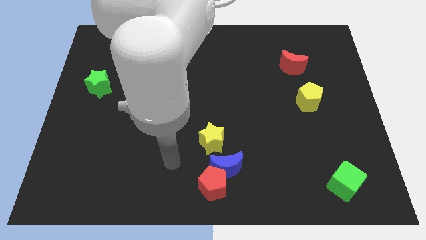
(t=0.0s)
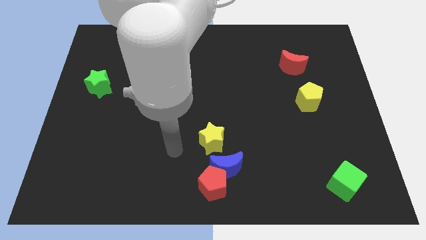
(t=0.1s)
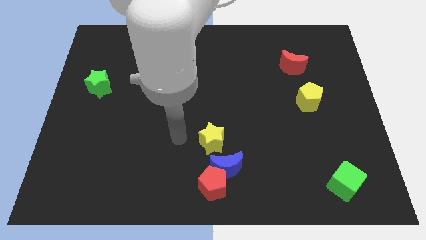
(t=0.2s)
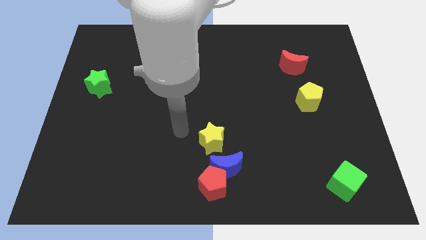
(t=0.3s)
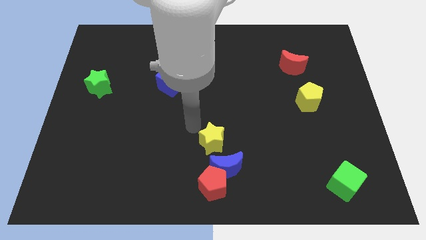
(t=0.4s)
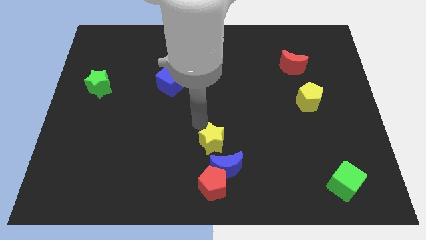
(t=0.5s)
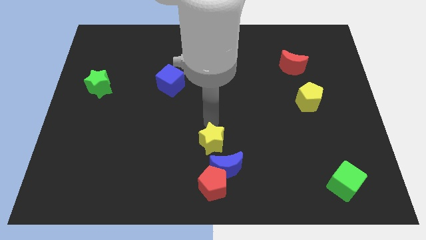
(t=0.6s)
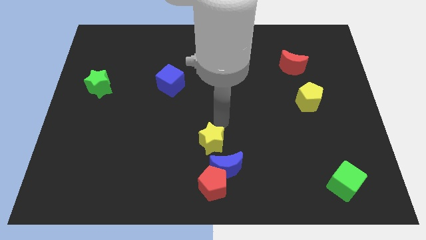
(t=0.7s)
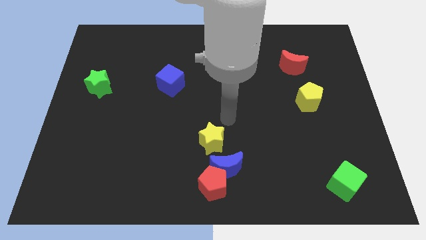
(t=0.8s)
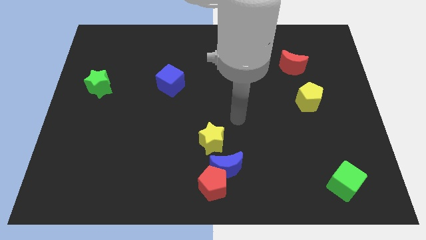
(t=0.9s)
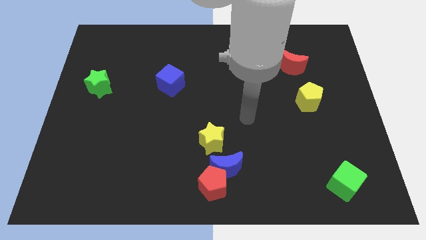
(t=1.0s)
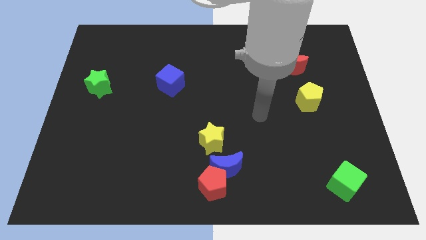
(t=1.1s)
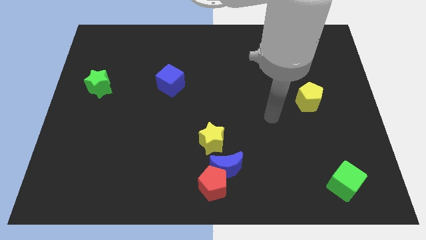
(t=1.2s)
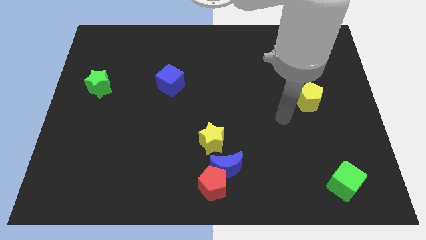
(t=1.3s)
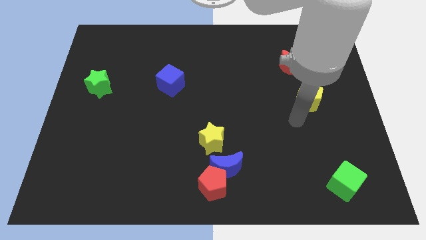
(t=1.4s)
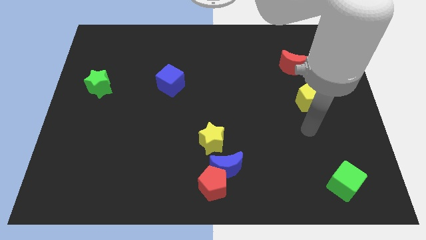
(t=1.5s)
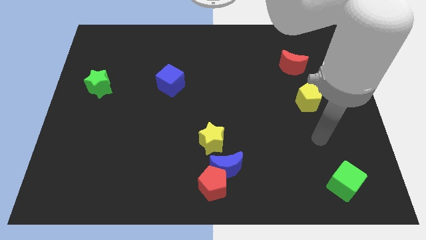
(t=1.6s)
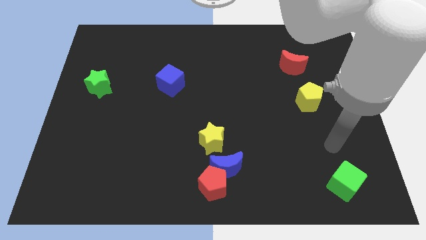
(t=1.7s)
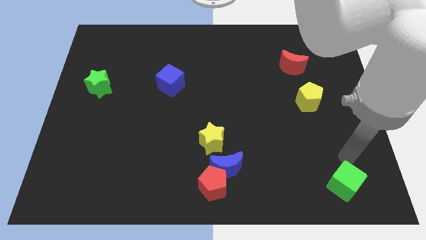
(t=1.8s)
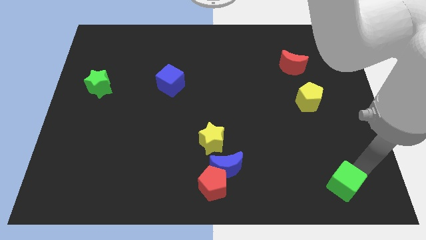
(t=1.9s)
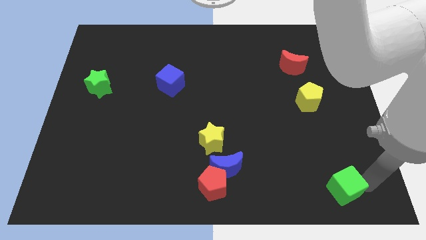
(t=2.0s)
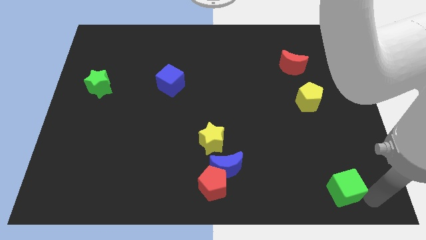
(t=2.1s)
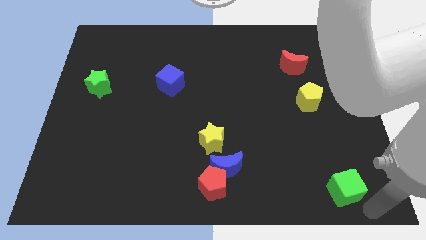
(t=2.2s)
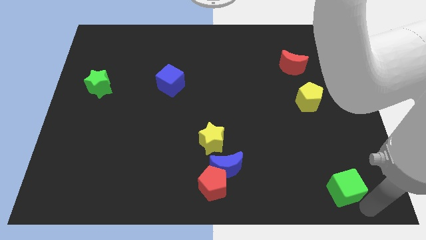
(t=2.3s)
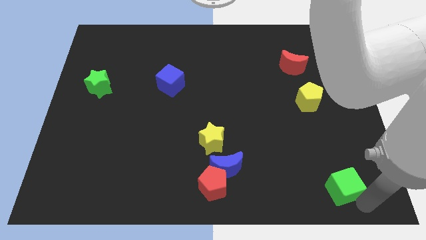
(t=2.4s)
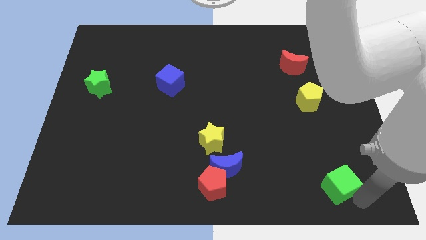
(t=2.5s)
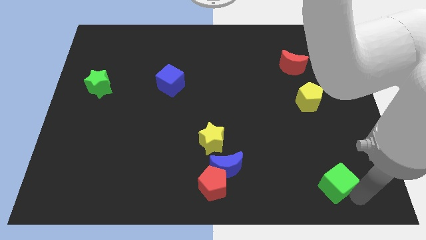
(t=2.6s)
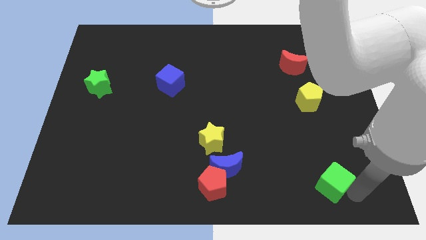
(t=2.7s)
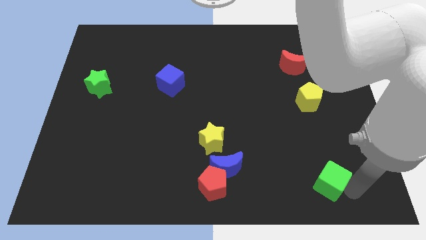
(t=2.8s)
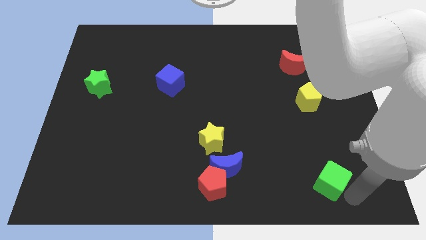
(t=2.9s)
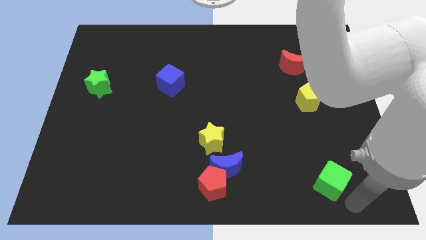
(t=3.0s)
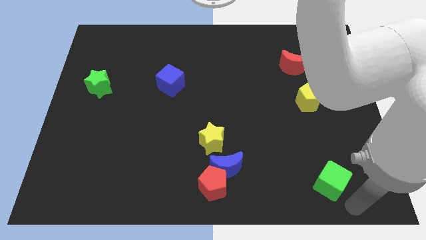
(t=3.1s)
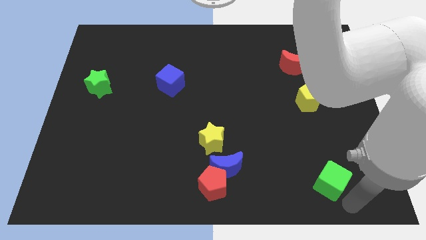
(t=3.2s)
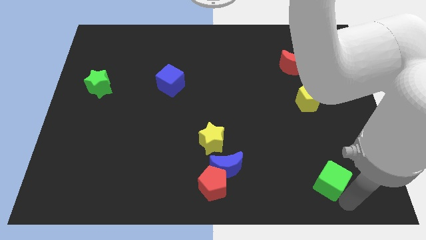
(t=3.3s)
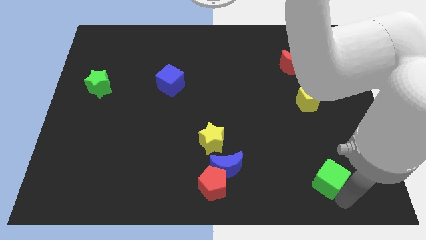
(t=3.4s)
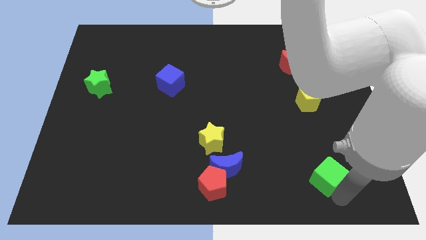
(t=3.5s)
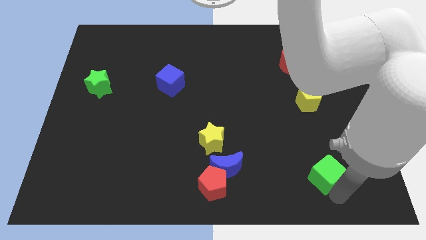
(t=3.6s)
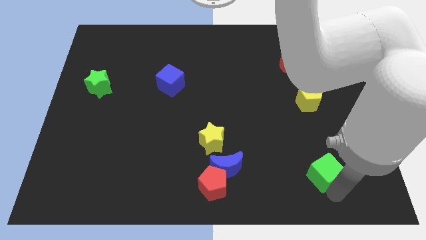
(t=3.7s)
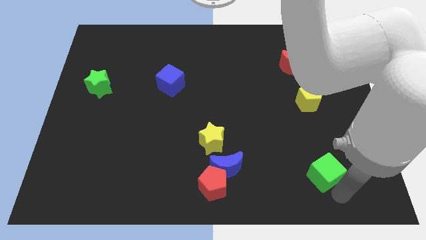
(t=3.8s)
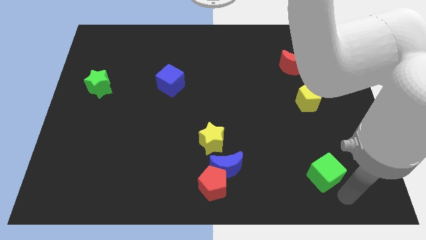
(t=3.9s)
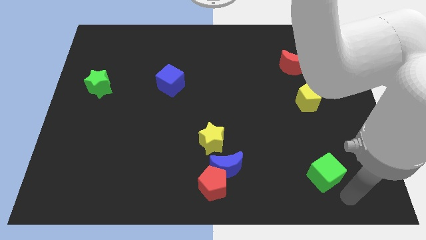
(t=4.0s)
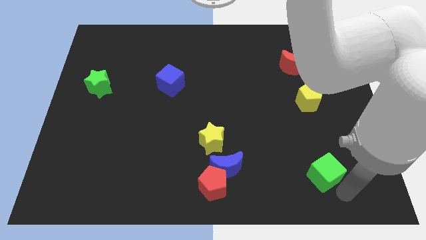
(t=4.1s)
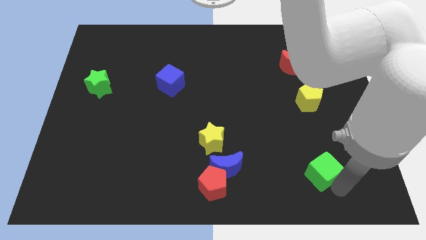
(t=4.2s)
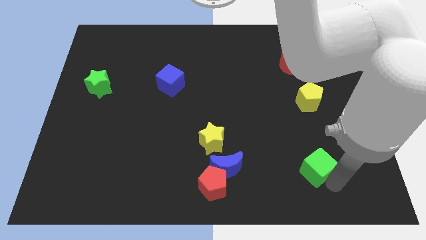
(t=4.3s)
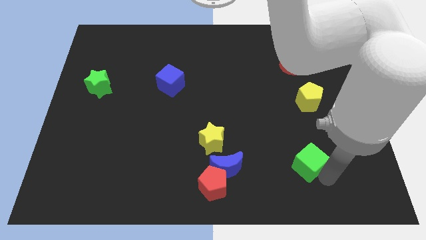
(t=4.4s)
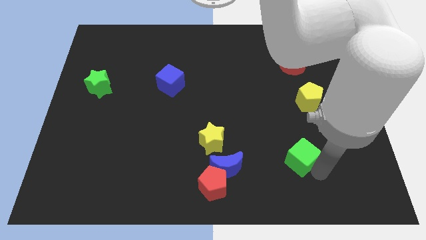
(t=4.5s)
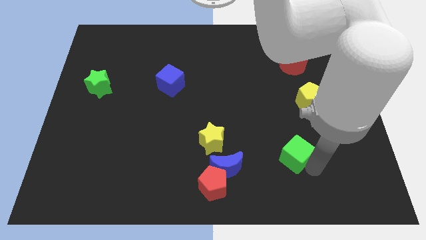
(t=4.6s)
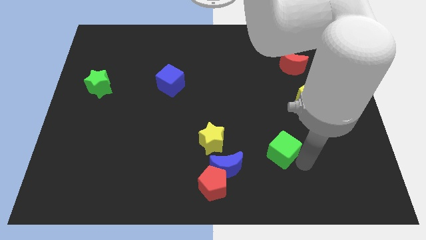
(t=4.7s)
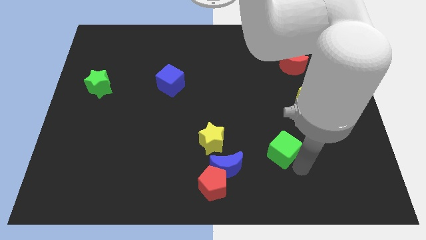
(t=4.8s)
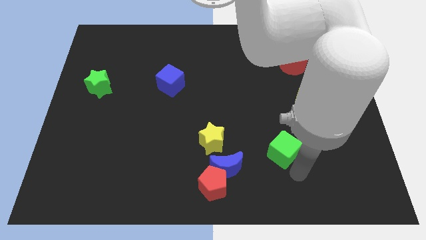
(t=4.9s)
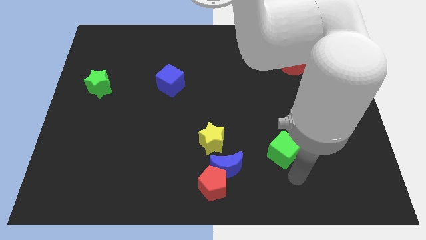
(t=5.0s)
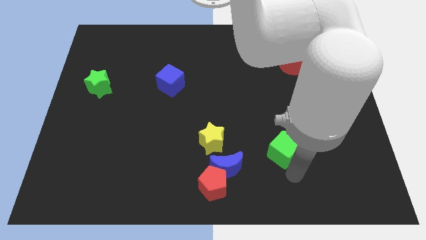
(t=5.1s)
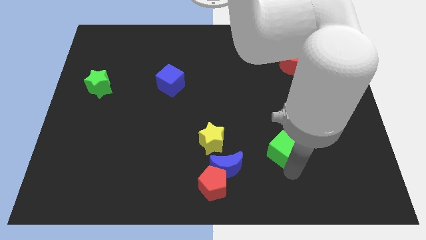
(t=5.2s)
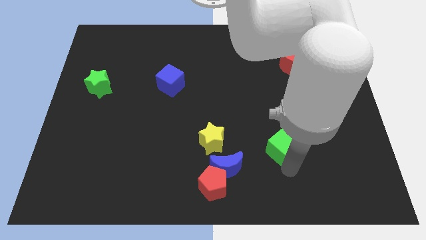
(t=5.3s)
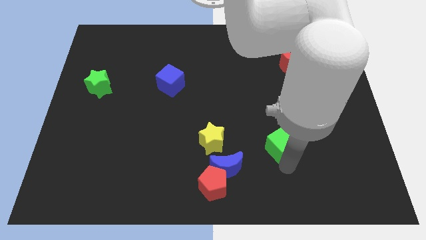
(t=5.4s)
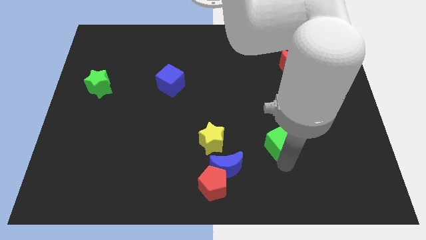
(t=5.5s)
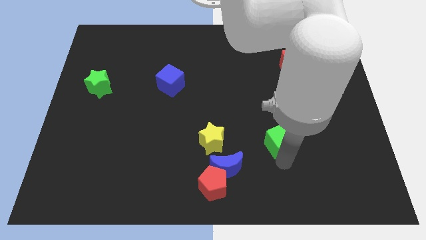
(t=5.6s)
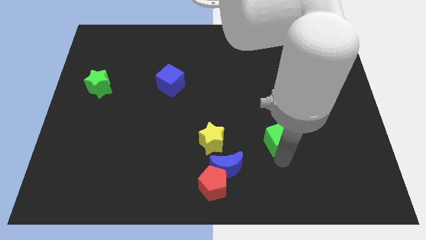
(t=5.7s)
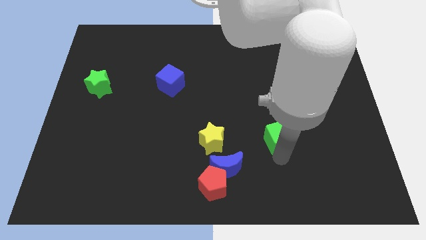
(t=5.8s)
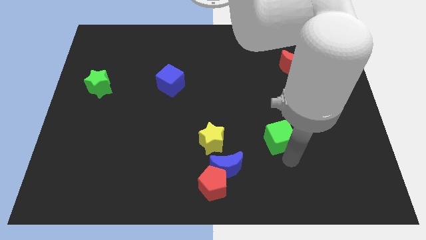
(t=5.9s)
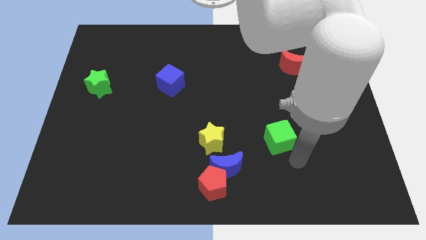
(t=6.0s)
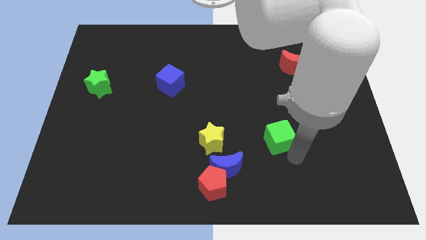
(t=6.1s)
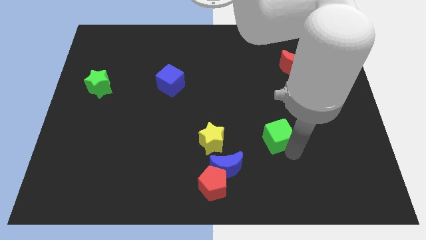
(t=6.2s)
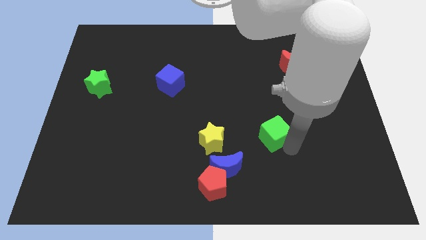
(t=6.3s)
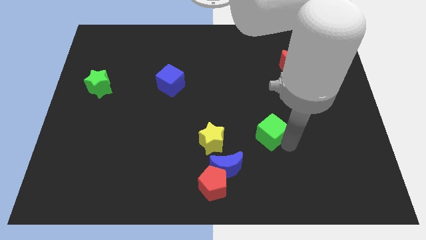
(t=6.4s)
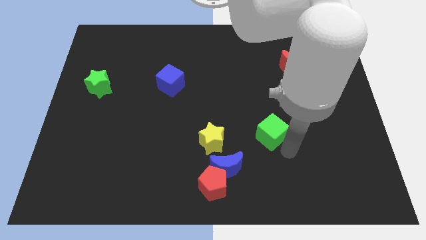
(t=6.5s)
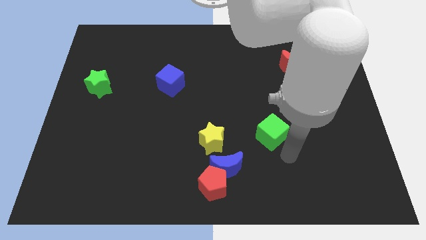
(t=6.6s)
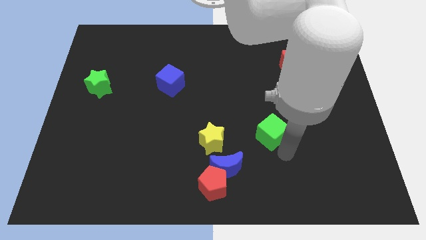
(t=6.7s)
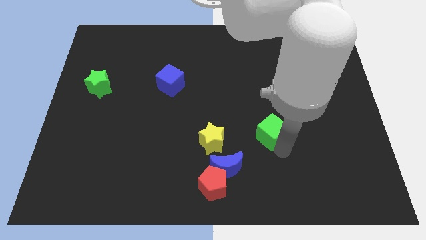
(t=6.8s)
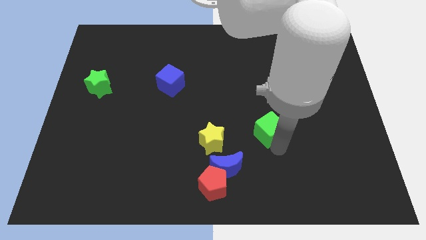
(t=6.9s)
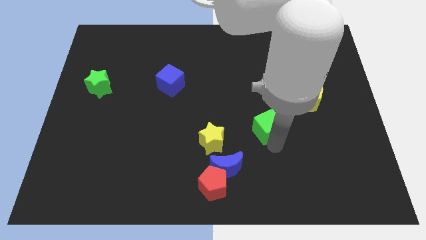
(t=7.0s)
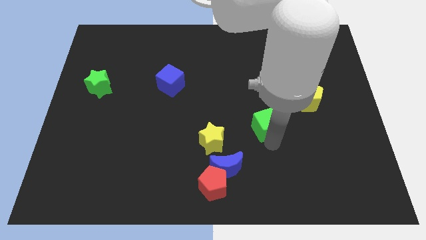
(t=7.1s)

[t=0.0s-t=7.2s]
slide the green cube up and to the left diagonally

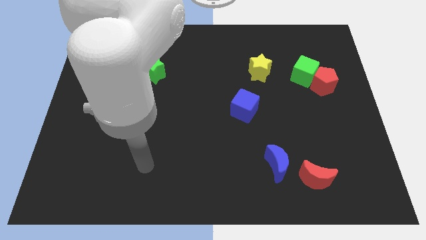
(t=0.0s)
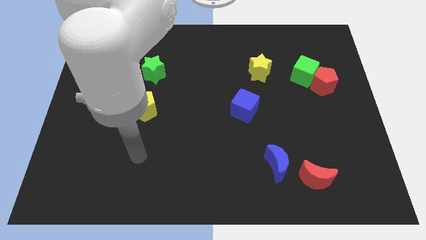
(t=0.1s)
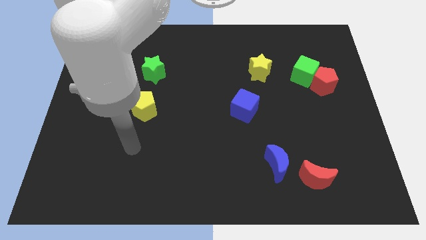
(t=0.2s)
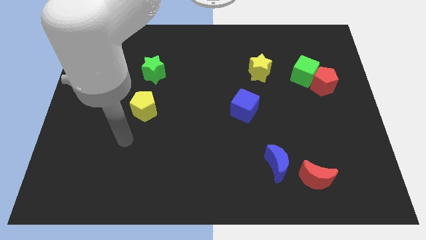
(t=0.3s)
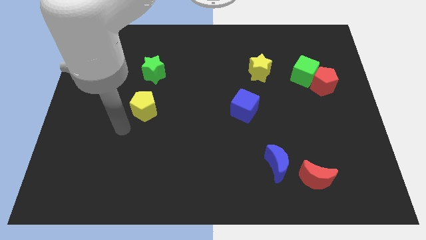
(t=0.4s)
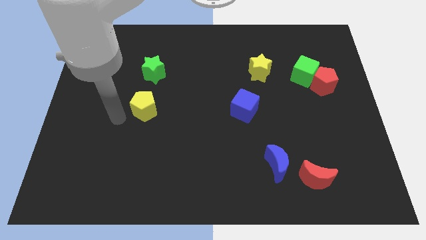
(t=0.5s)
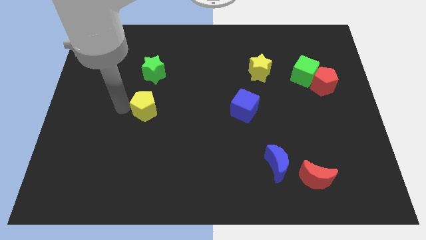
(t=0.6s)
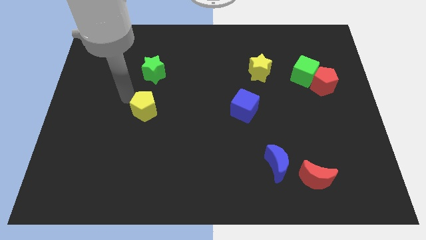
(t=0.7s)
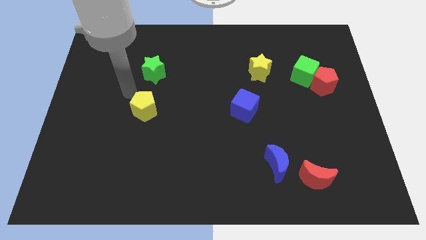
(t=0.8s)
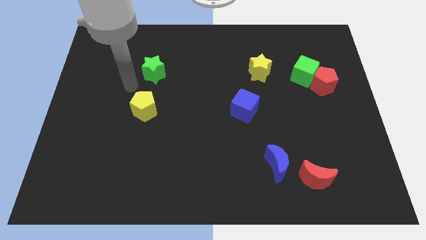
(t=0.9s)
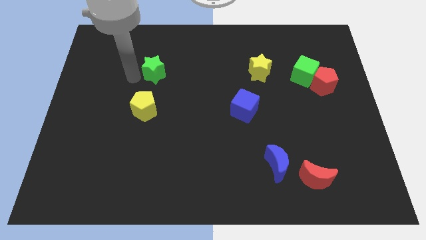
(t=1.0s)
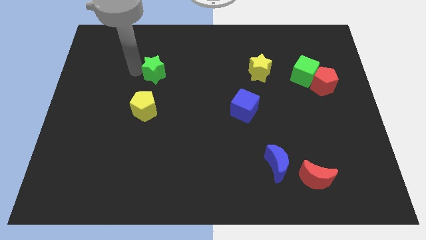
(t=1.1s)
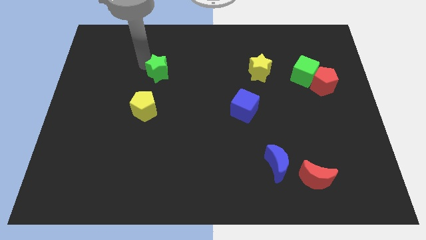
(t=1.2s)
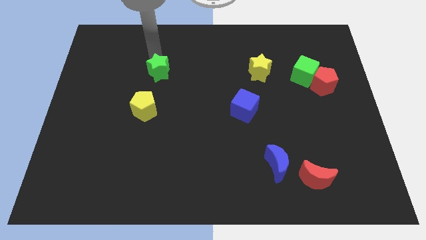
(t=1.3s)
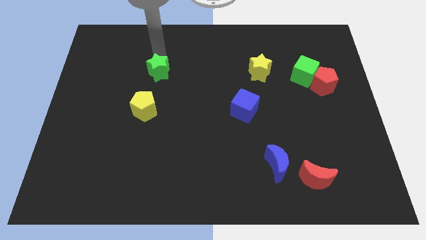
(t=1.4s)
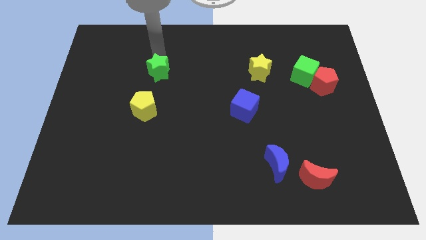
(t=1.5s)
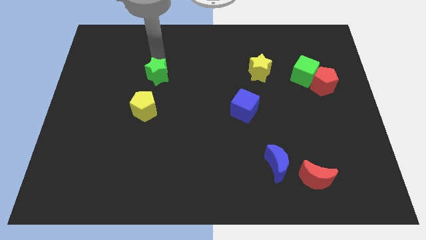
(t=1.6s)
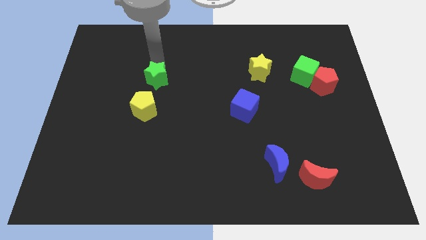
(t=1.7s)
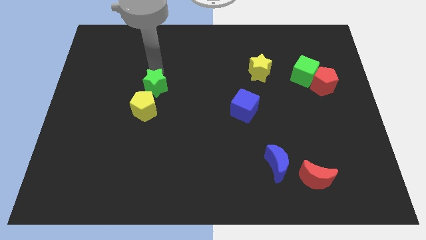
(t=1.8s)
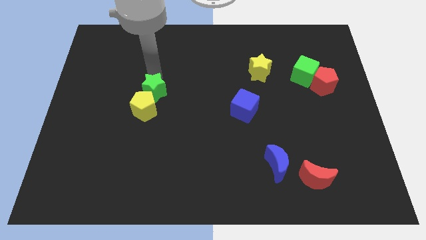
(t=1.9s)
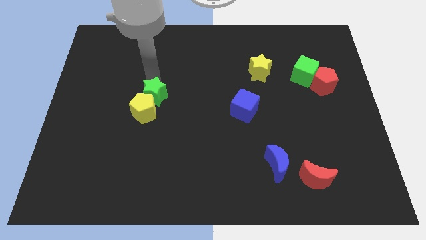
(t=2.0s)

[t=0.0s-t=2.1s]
slightly slide the green star downwards
